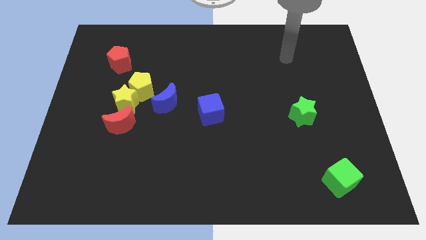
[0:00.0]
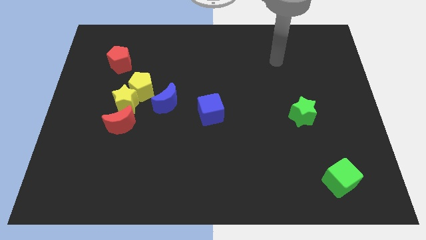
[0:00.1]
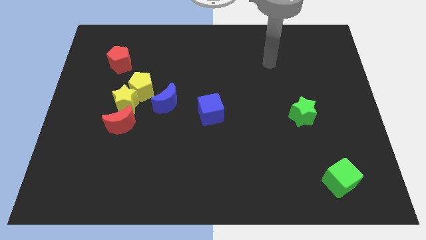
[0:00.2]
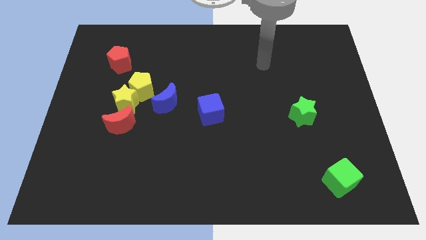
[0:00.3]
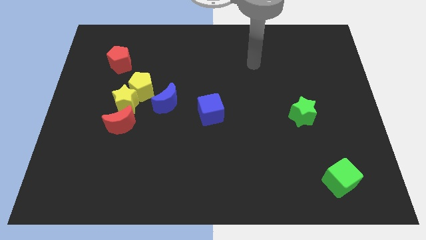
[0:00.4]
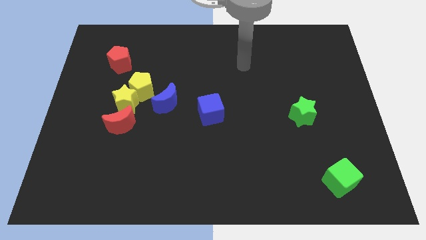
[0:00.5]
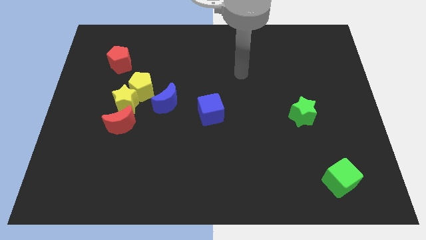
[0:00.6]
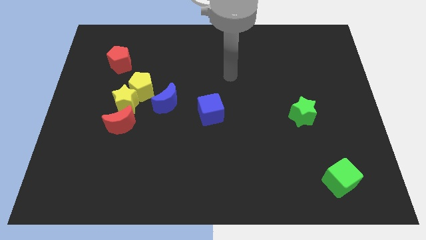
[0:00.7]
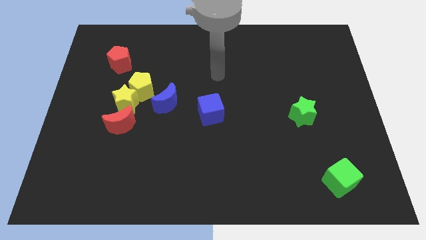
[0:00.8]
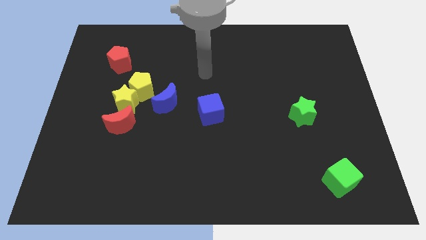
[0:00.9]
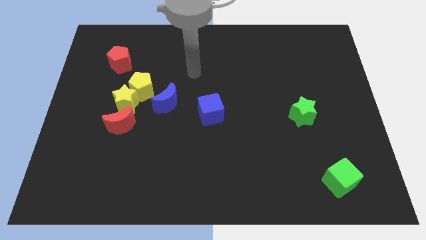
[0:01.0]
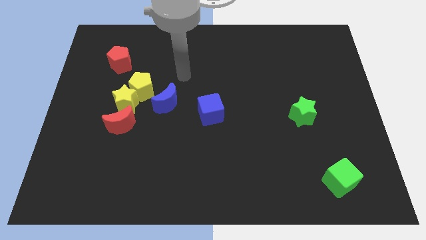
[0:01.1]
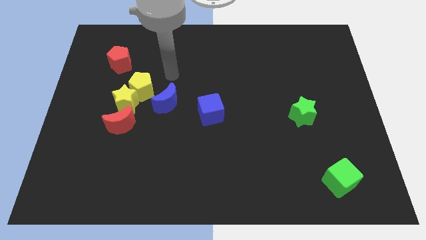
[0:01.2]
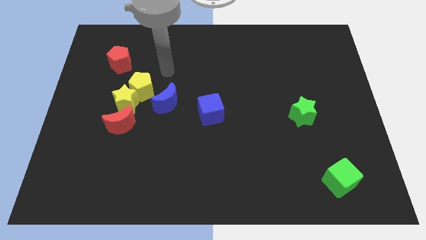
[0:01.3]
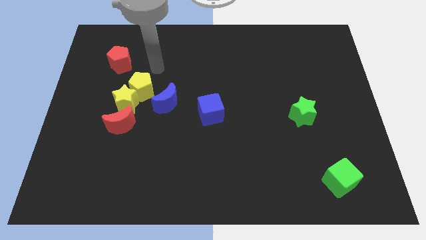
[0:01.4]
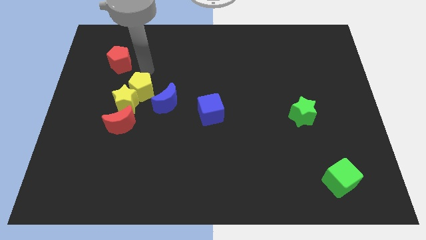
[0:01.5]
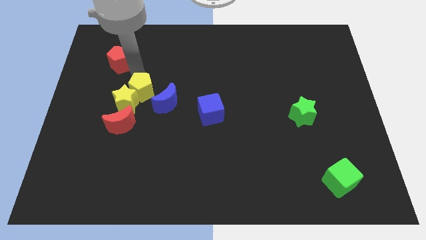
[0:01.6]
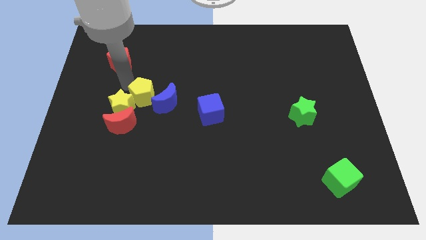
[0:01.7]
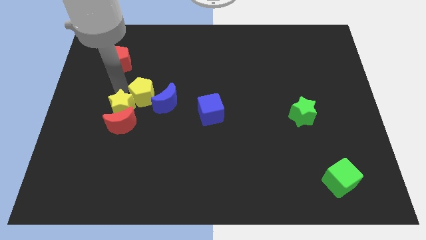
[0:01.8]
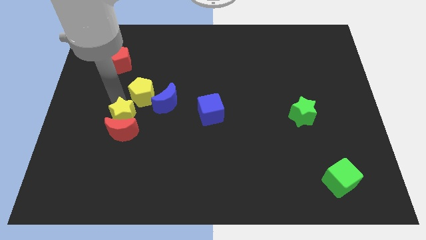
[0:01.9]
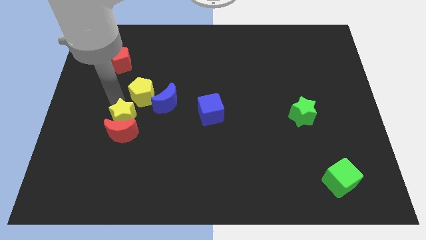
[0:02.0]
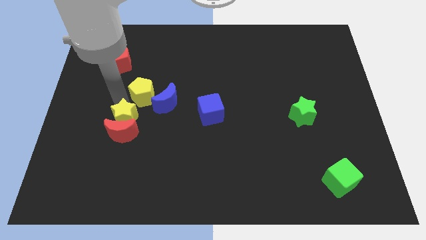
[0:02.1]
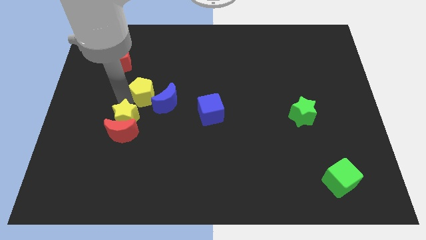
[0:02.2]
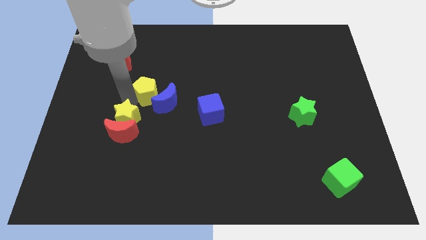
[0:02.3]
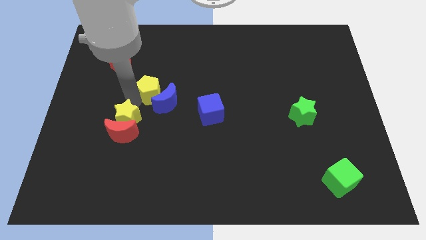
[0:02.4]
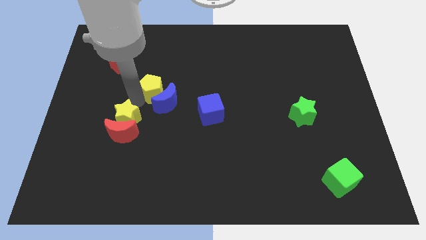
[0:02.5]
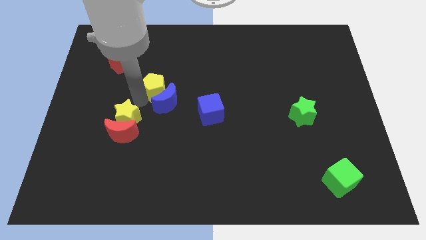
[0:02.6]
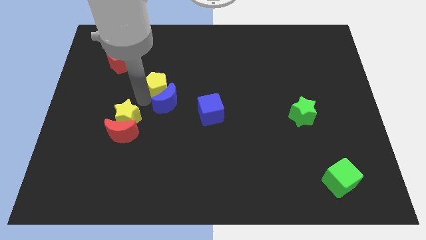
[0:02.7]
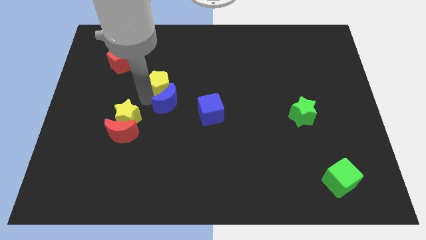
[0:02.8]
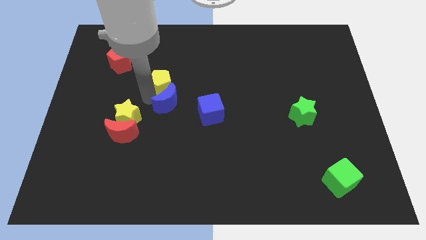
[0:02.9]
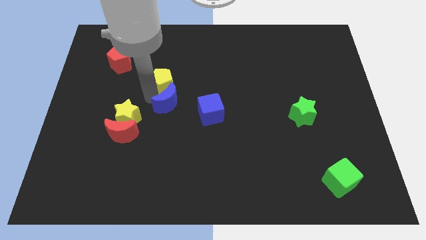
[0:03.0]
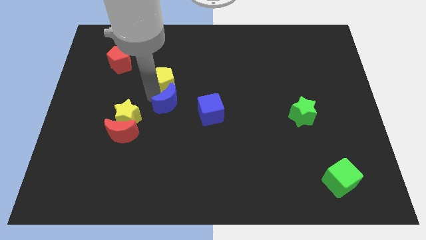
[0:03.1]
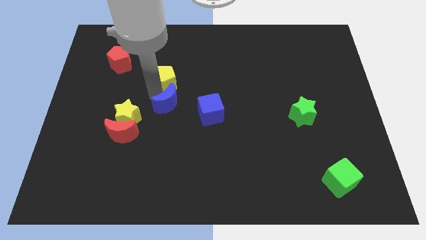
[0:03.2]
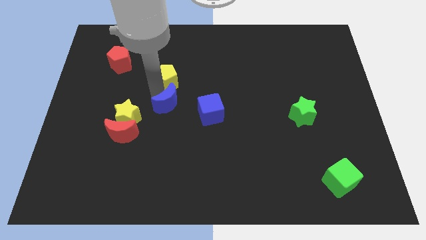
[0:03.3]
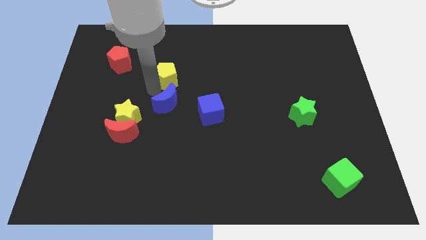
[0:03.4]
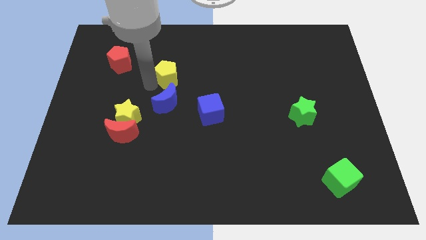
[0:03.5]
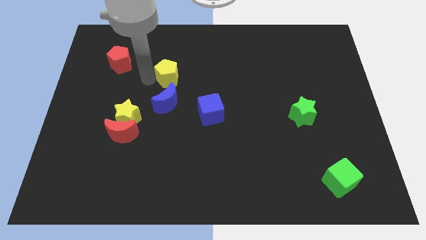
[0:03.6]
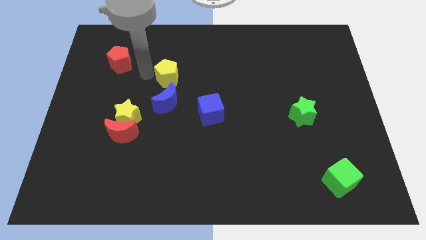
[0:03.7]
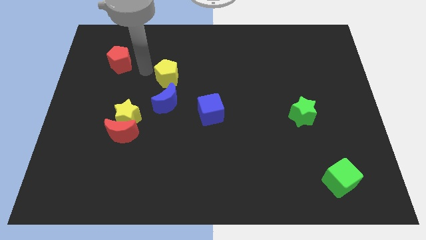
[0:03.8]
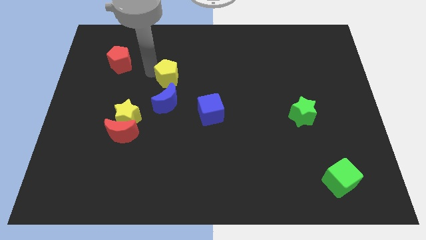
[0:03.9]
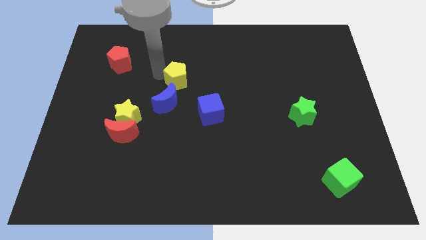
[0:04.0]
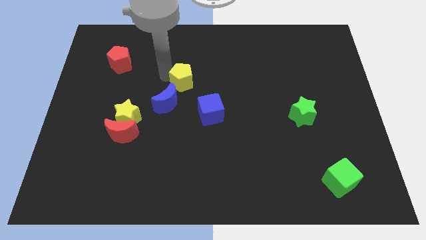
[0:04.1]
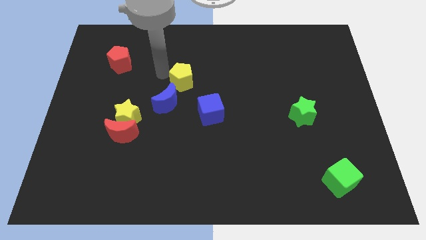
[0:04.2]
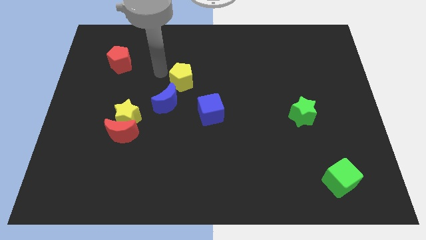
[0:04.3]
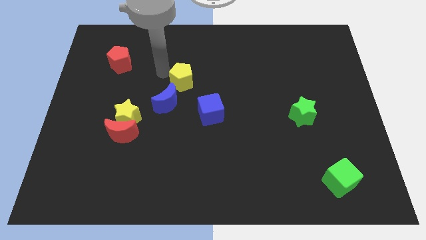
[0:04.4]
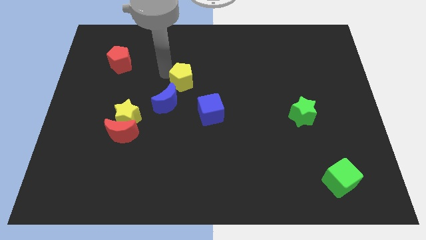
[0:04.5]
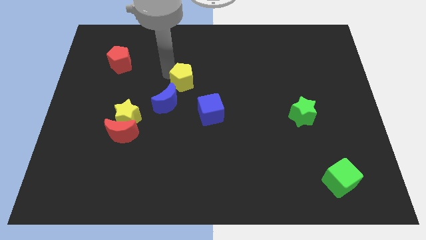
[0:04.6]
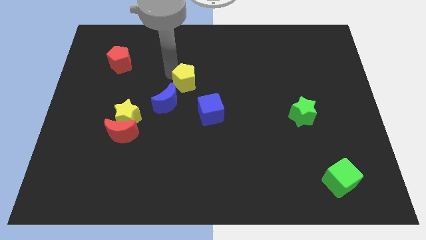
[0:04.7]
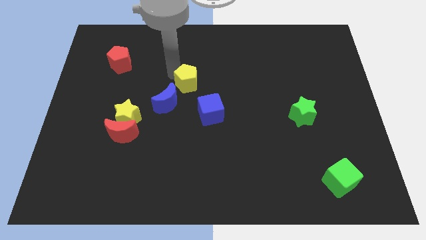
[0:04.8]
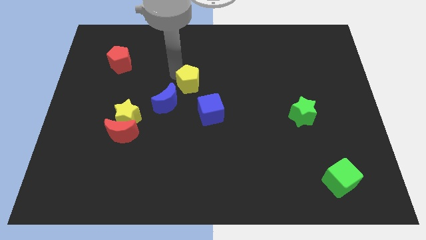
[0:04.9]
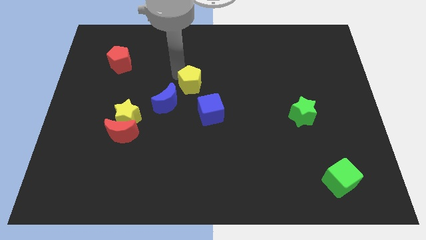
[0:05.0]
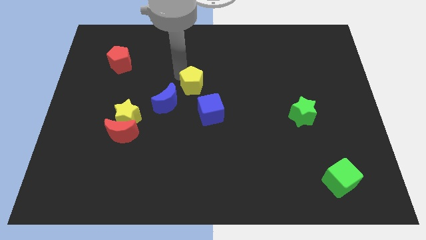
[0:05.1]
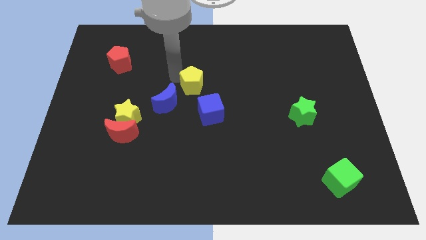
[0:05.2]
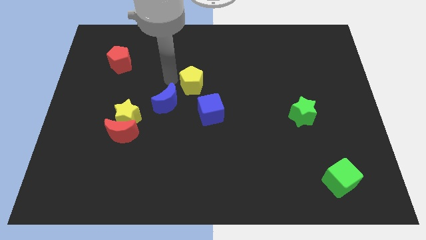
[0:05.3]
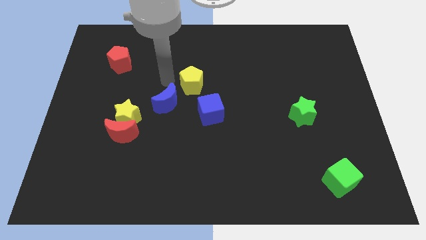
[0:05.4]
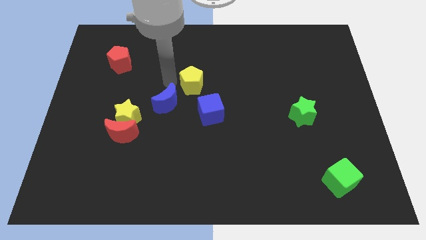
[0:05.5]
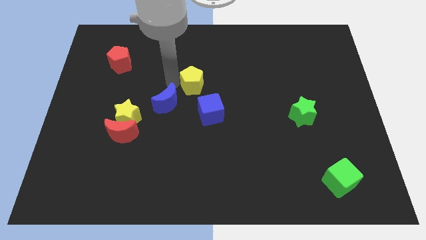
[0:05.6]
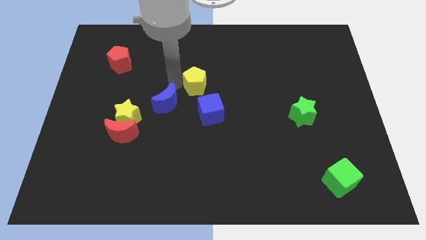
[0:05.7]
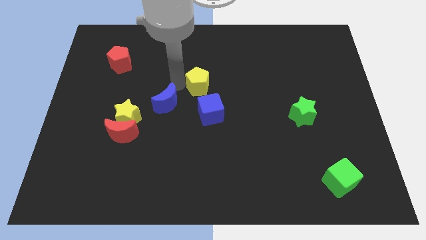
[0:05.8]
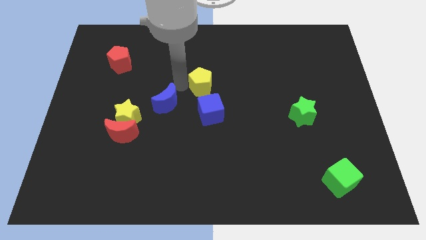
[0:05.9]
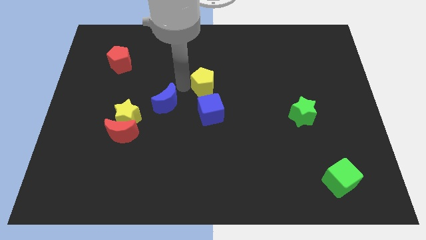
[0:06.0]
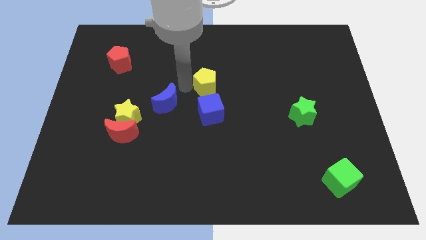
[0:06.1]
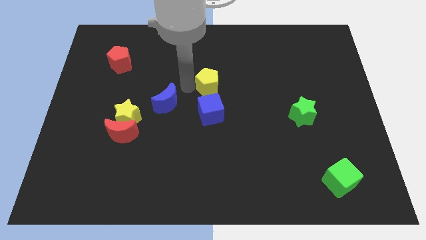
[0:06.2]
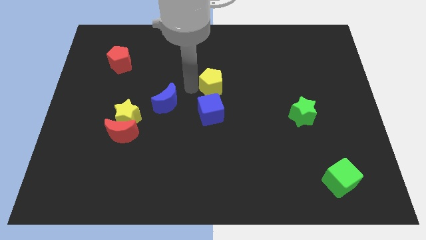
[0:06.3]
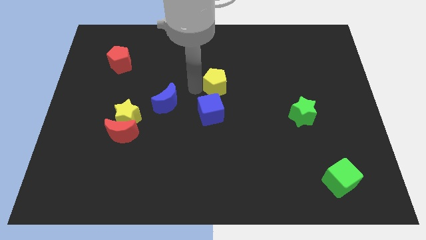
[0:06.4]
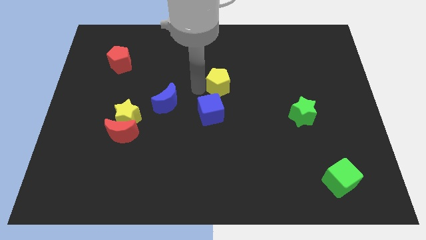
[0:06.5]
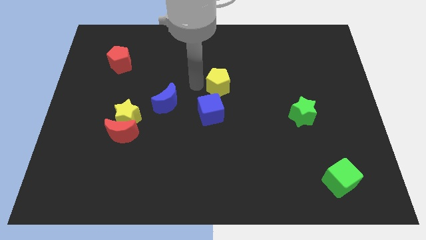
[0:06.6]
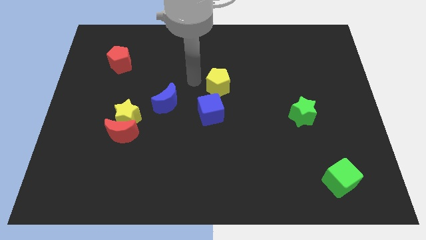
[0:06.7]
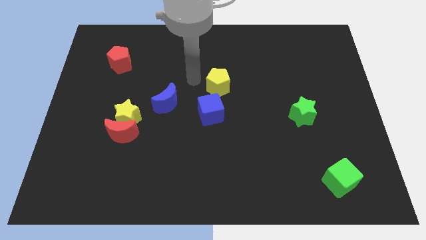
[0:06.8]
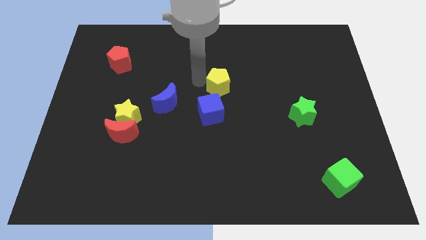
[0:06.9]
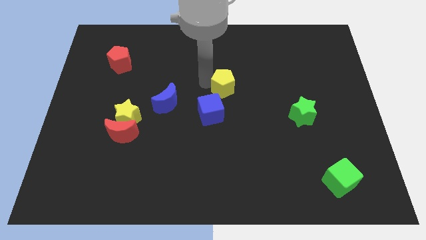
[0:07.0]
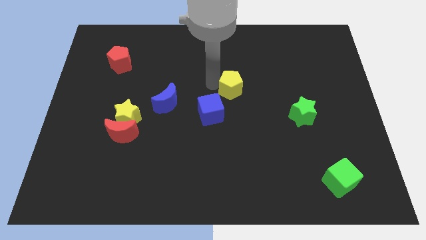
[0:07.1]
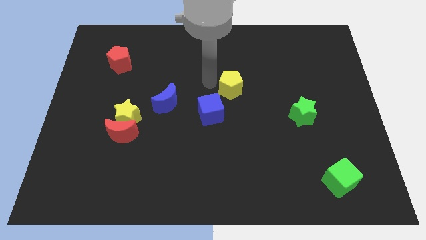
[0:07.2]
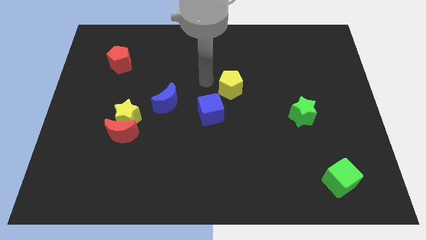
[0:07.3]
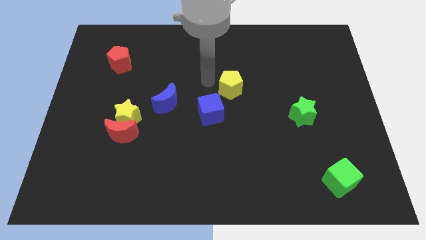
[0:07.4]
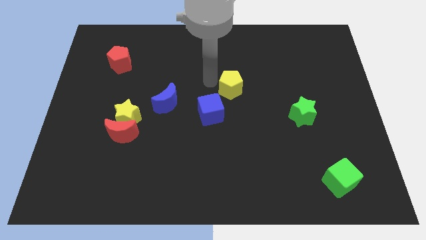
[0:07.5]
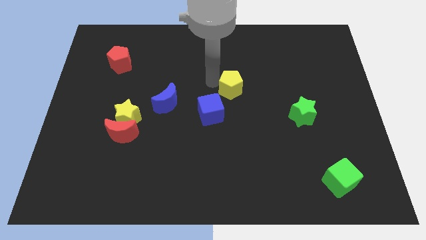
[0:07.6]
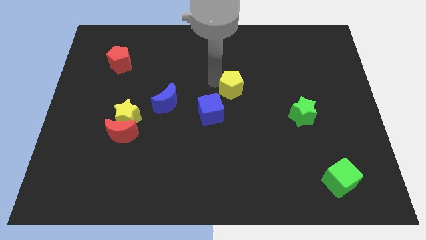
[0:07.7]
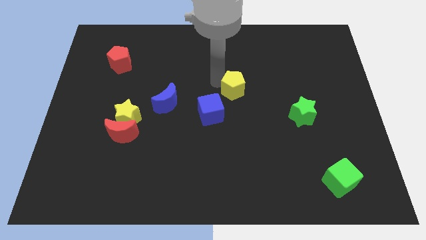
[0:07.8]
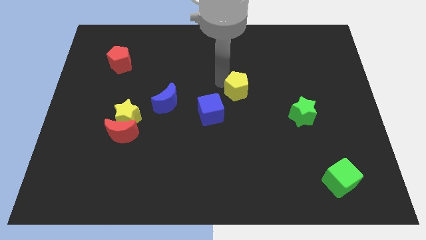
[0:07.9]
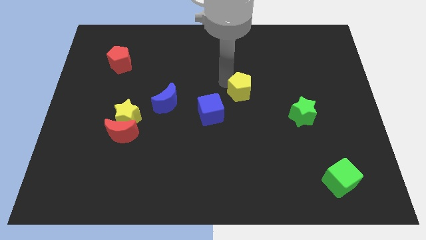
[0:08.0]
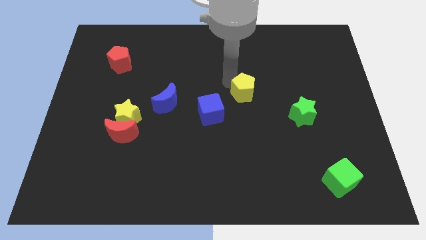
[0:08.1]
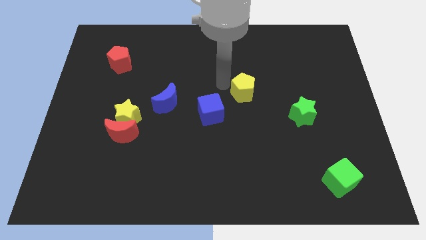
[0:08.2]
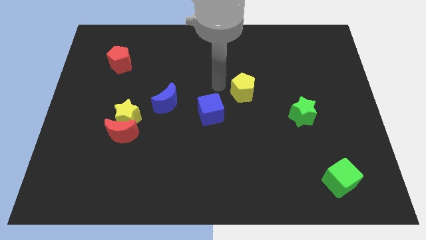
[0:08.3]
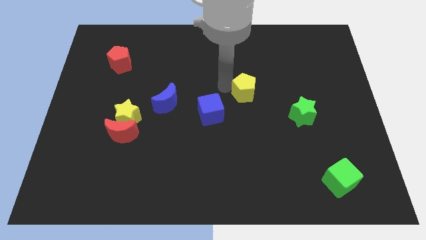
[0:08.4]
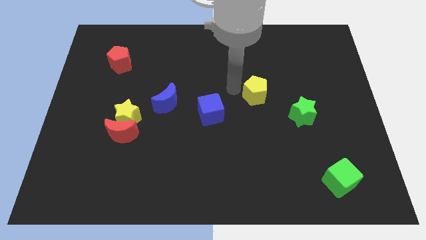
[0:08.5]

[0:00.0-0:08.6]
slide the yellow pentagon diagonally up and to the left of the green star
